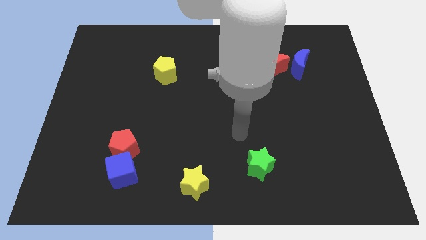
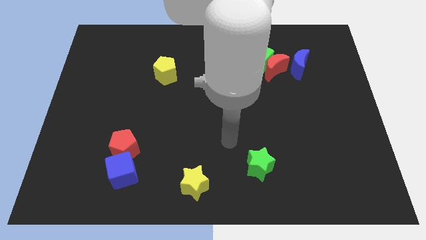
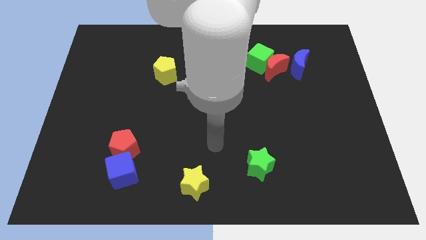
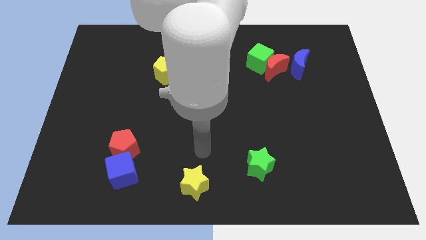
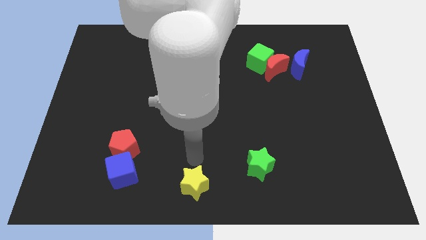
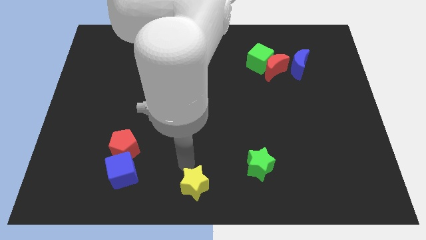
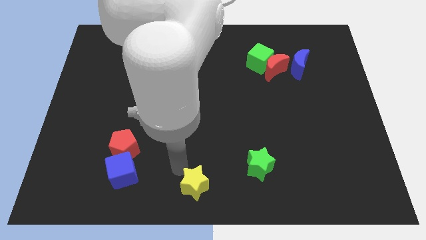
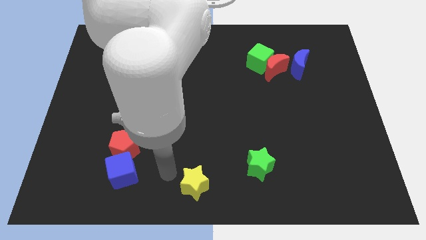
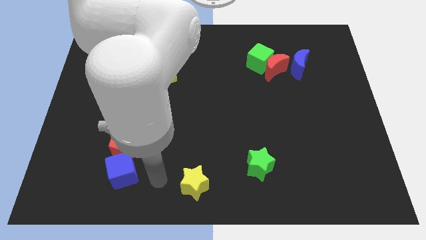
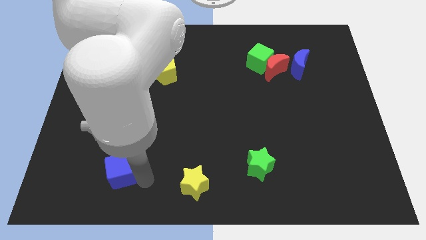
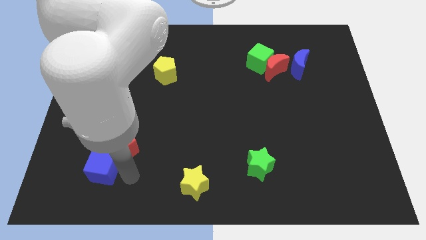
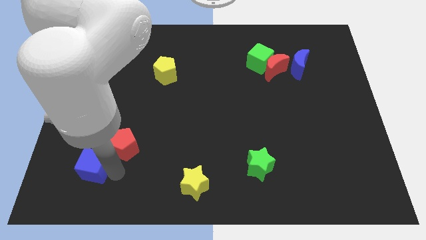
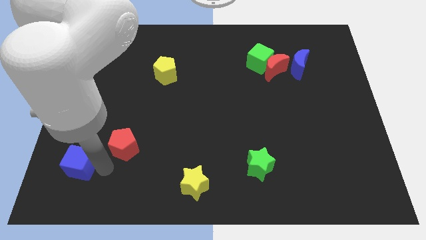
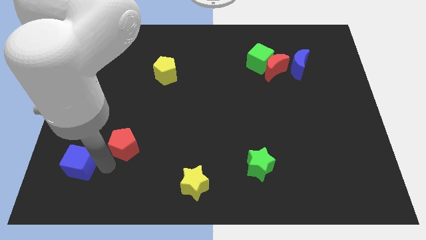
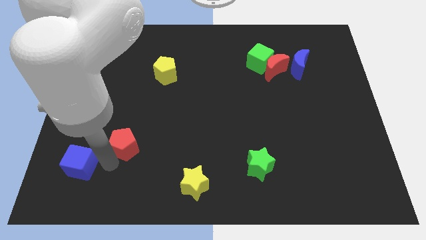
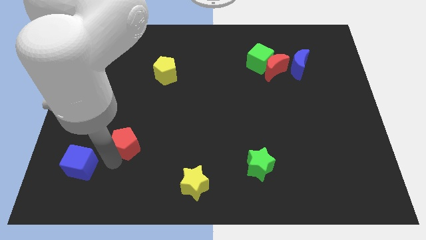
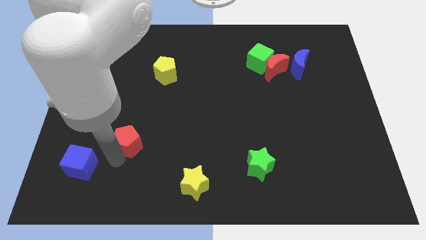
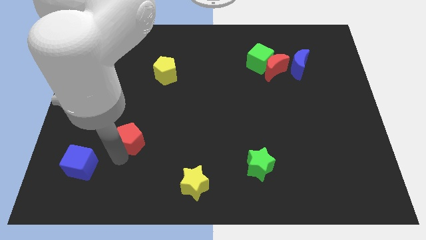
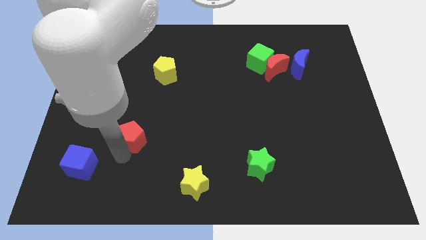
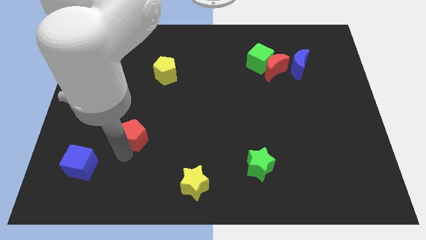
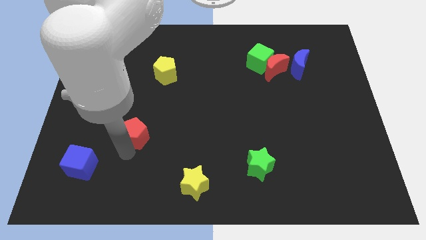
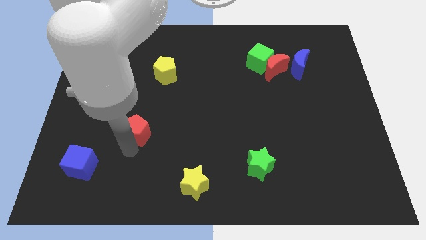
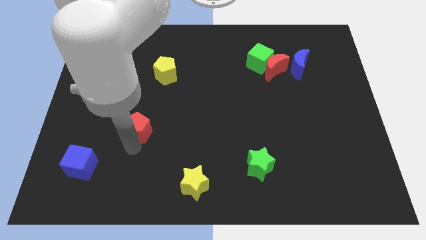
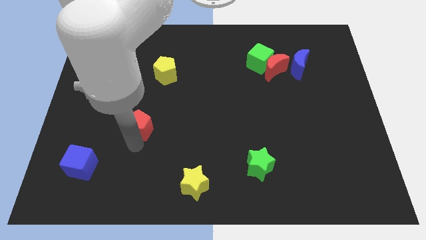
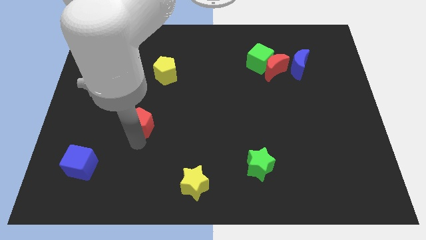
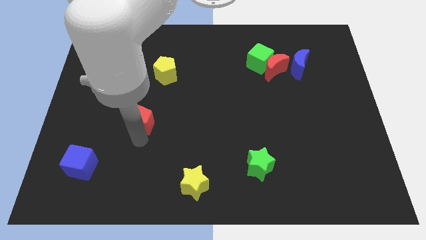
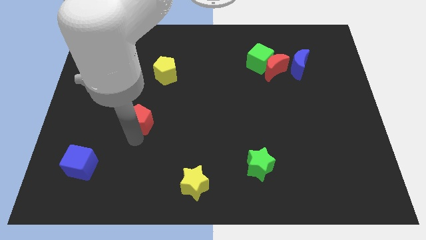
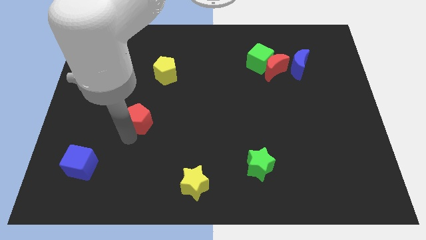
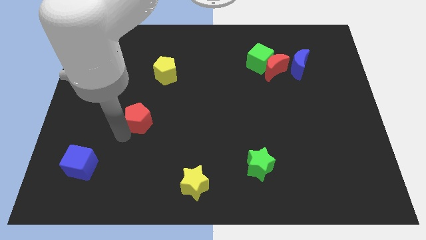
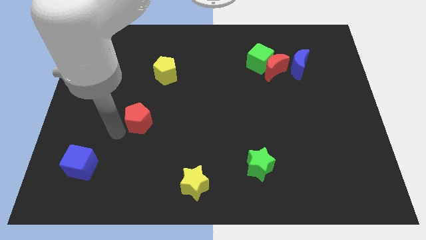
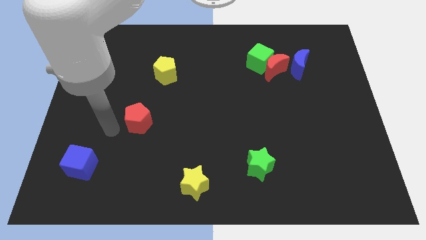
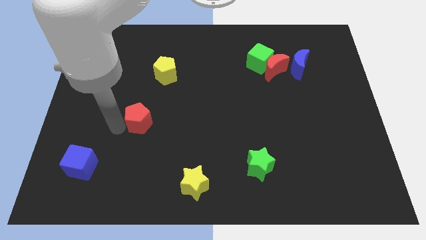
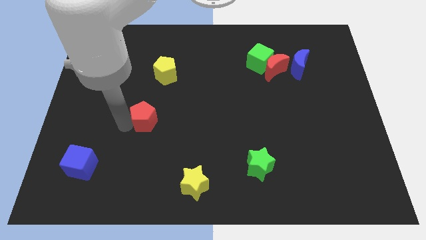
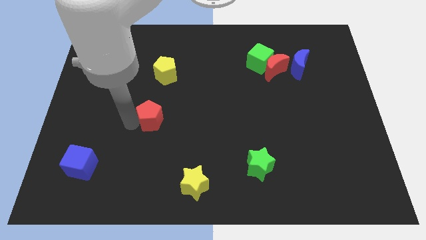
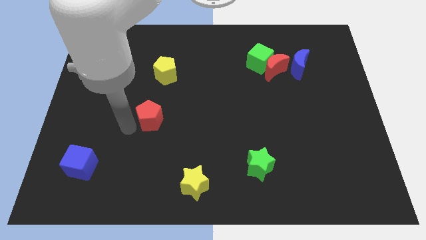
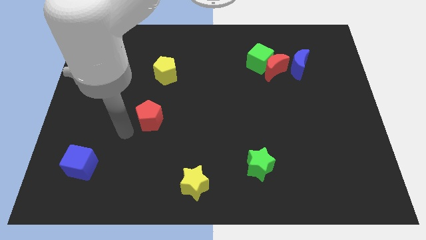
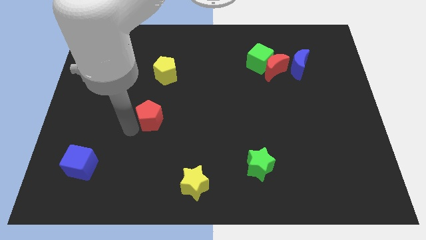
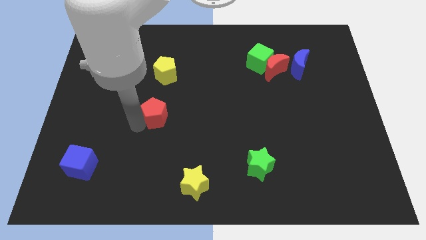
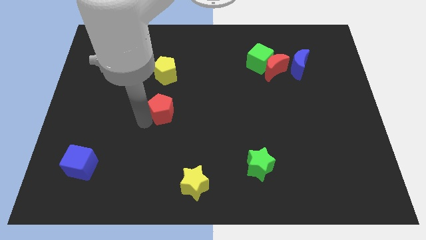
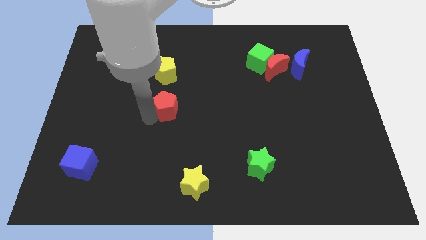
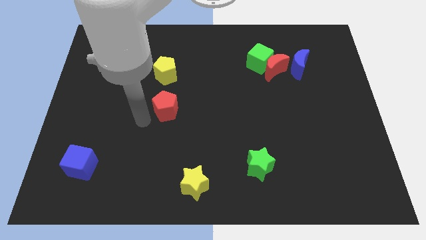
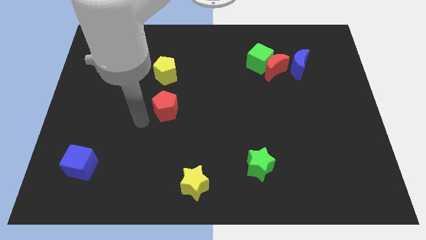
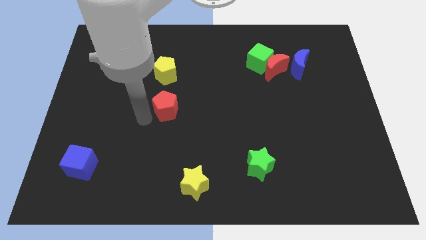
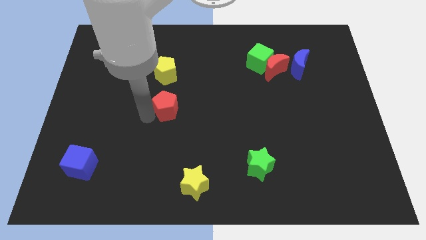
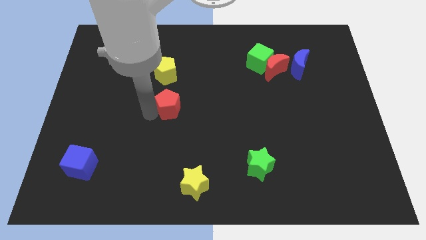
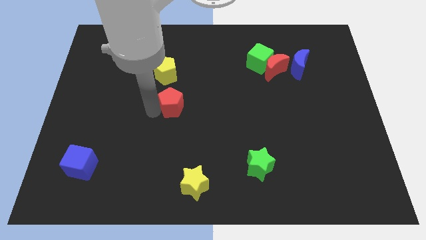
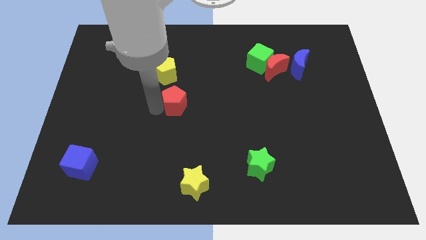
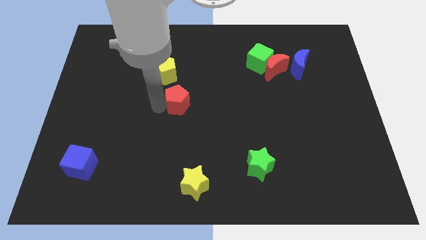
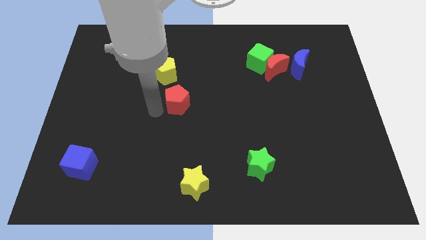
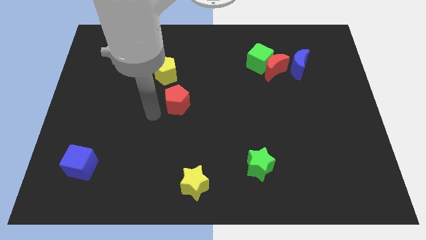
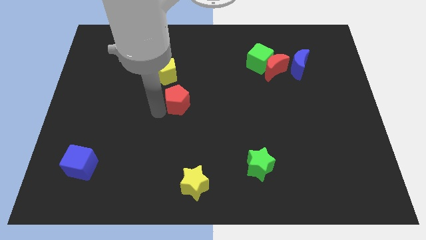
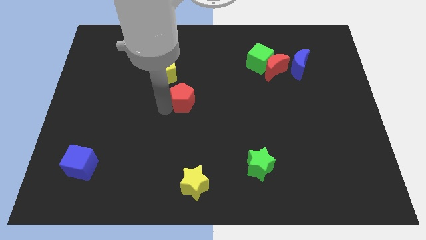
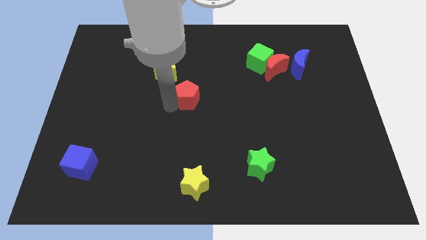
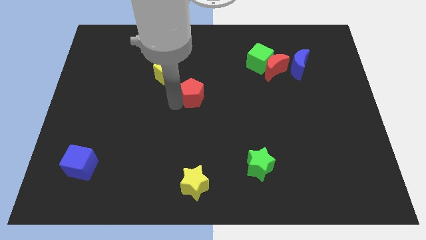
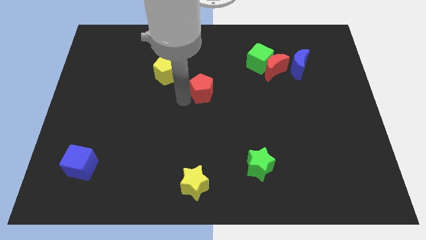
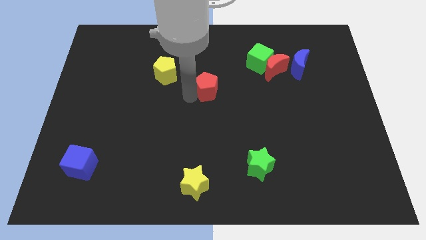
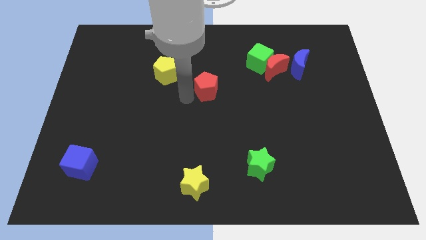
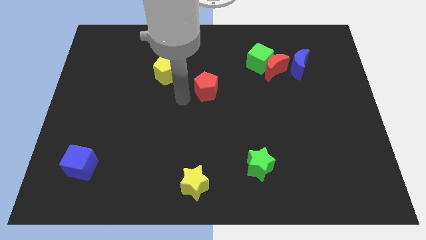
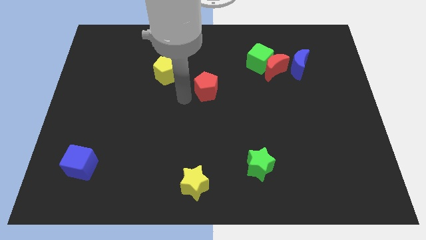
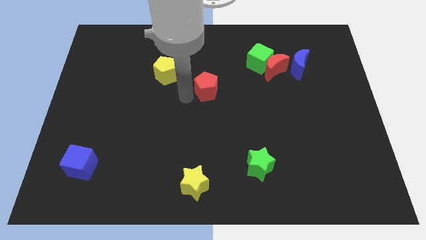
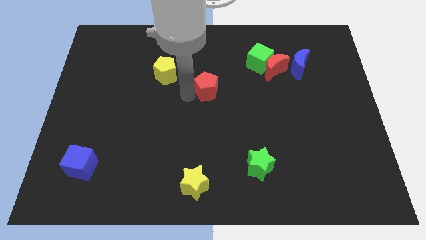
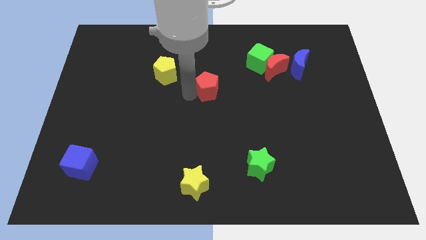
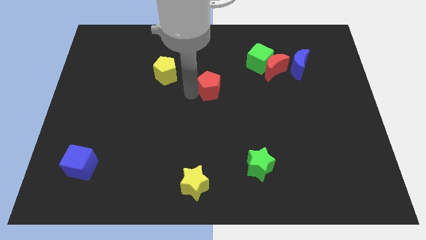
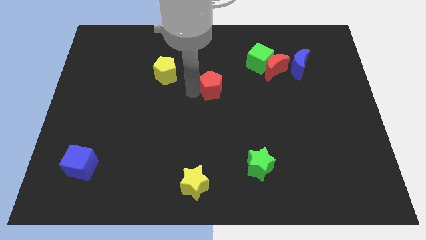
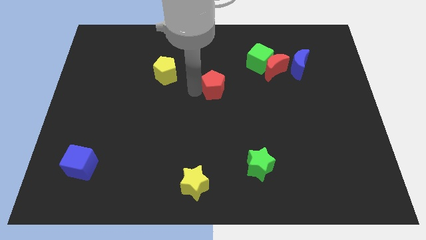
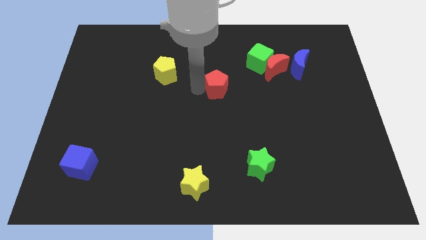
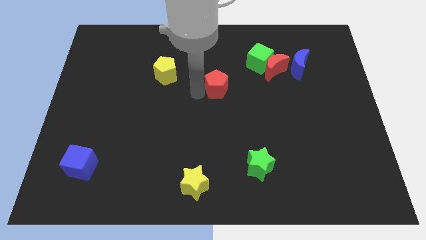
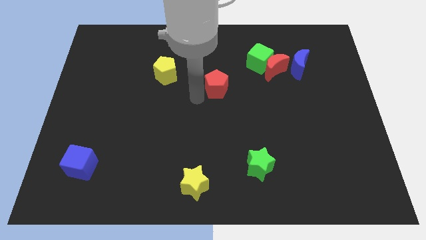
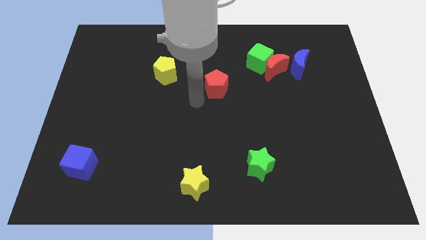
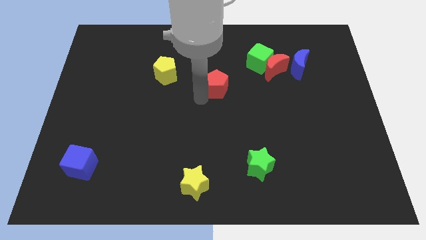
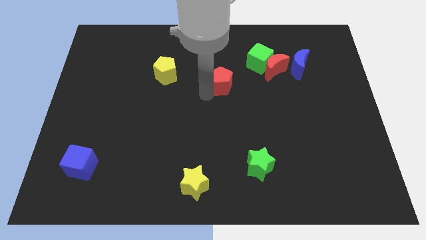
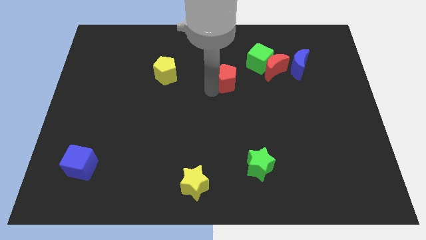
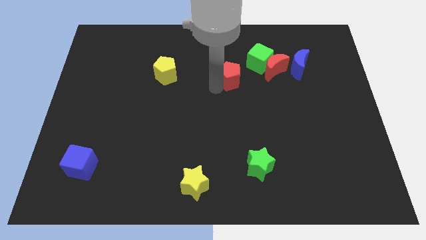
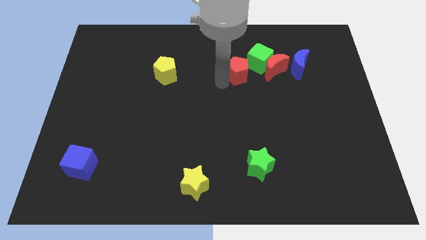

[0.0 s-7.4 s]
put the red pentagon to the left of the blue moon
